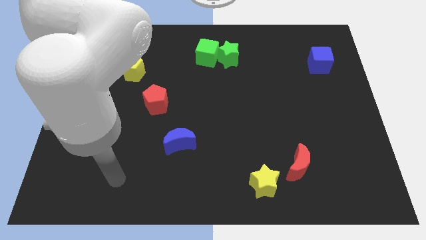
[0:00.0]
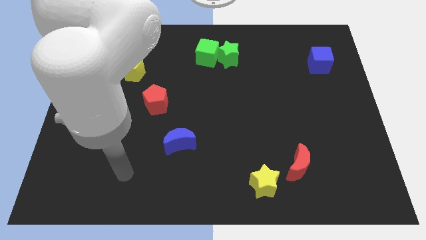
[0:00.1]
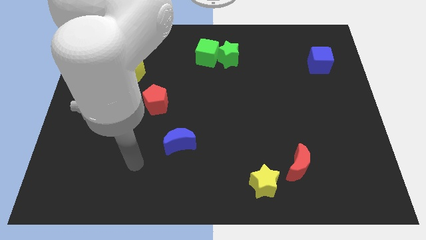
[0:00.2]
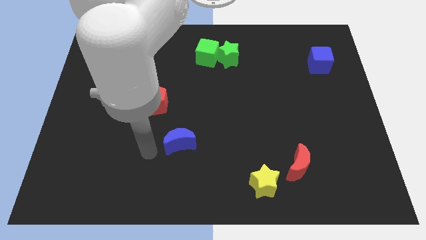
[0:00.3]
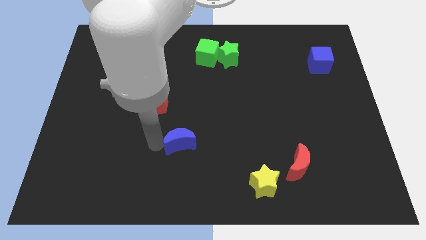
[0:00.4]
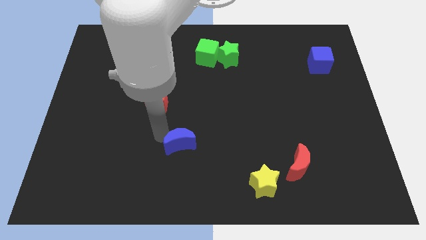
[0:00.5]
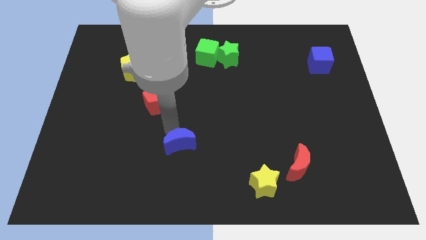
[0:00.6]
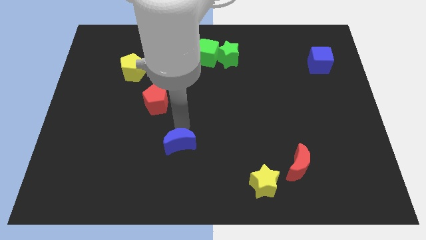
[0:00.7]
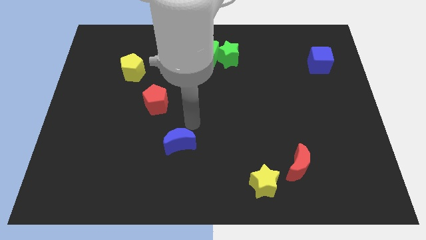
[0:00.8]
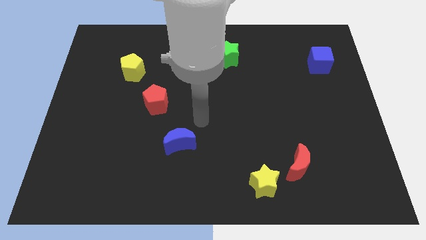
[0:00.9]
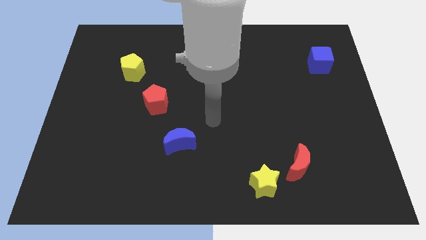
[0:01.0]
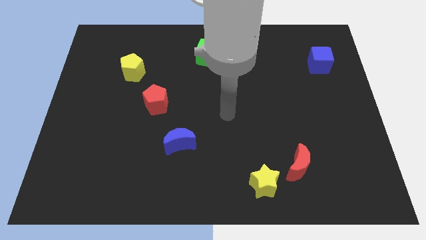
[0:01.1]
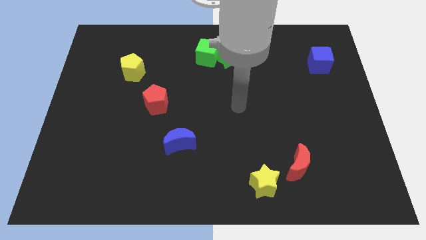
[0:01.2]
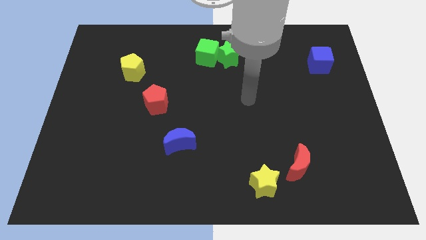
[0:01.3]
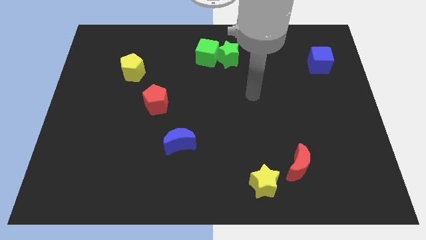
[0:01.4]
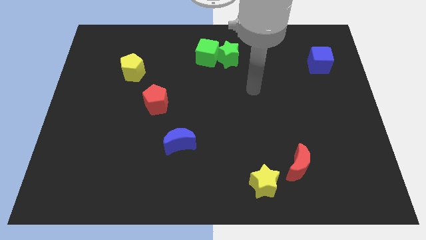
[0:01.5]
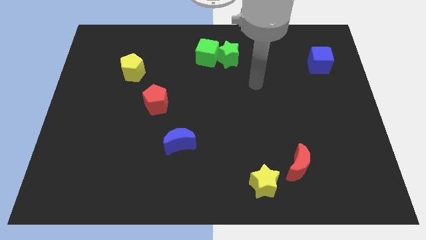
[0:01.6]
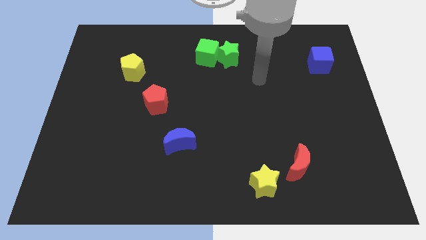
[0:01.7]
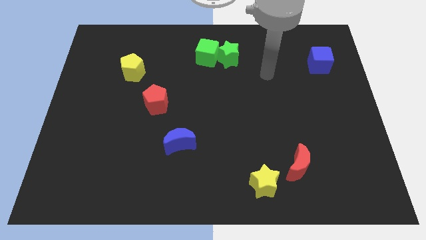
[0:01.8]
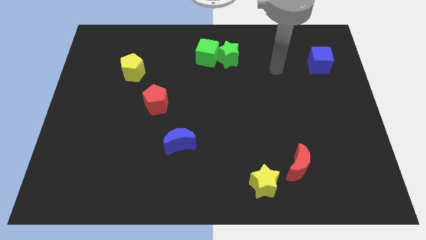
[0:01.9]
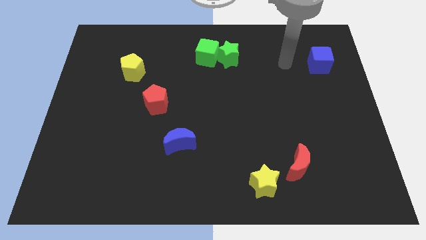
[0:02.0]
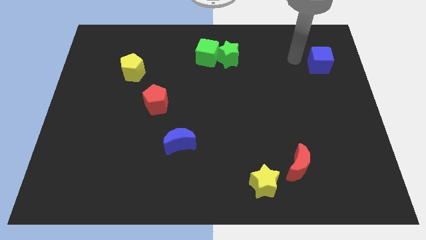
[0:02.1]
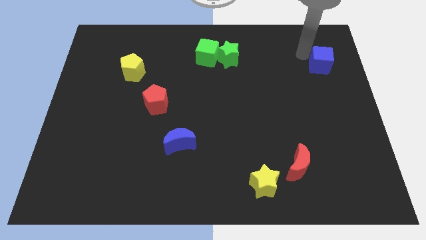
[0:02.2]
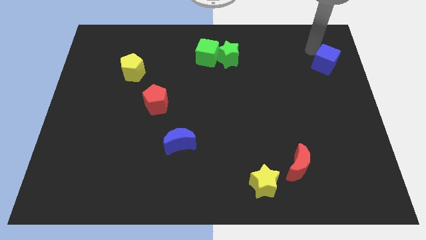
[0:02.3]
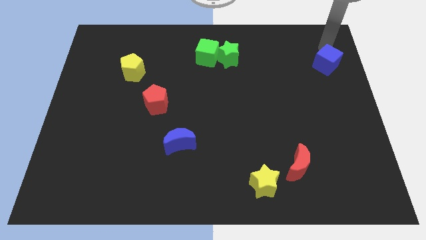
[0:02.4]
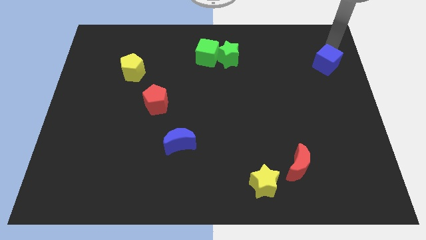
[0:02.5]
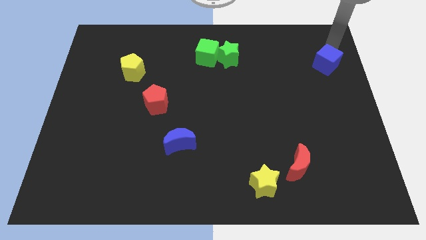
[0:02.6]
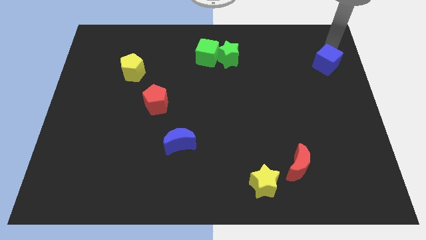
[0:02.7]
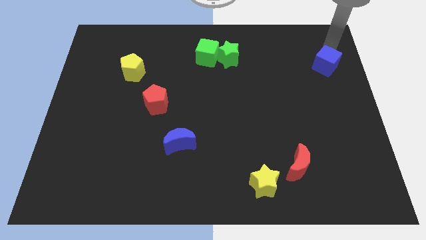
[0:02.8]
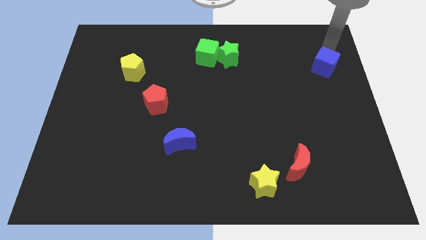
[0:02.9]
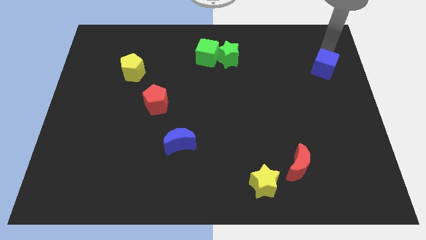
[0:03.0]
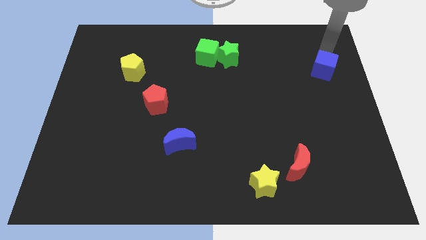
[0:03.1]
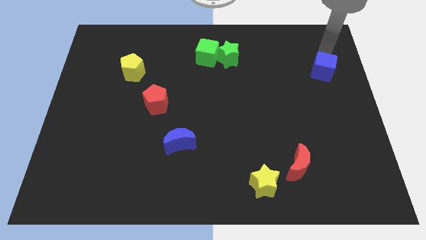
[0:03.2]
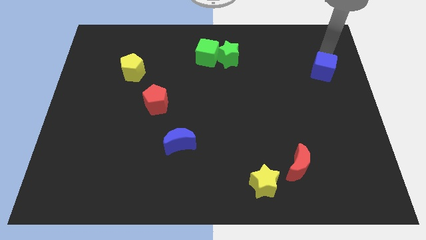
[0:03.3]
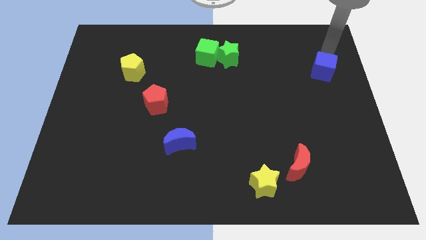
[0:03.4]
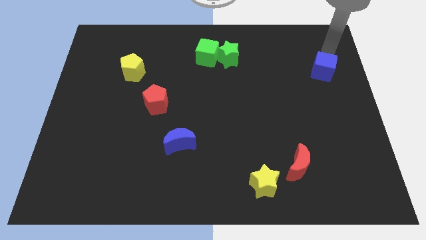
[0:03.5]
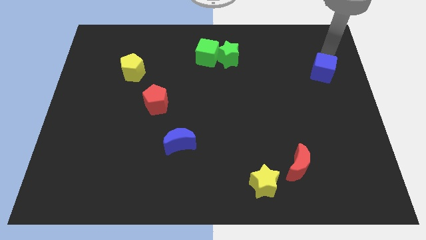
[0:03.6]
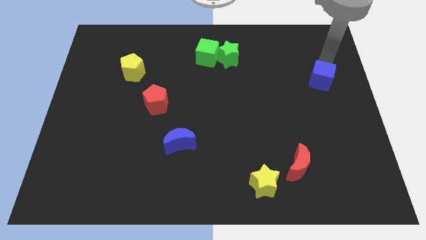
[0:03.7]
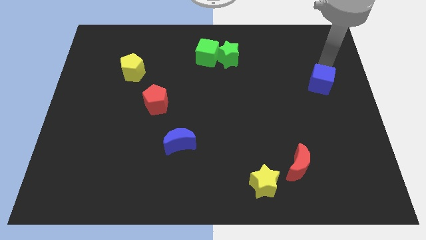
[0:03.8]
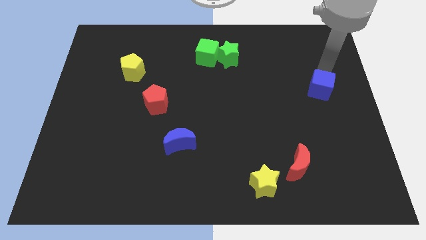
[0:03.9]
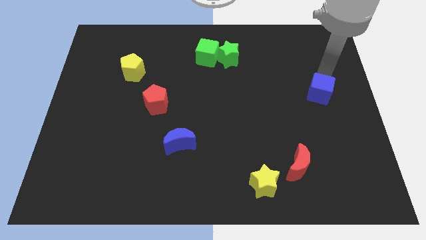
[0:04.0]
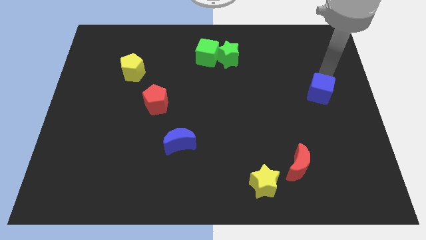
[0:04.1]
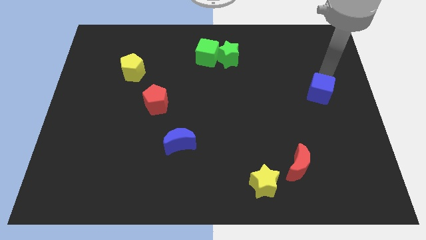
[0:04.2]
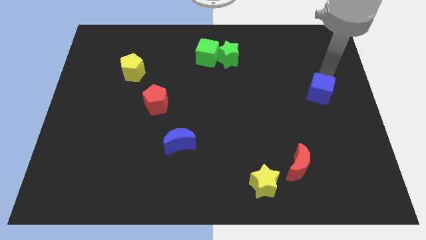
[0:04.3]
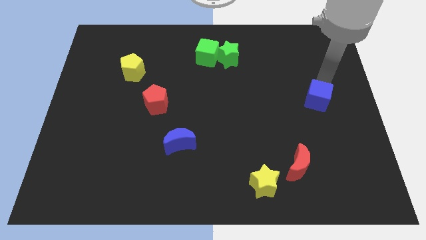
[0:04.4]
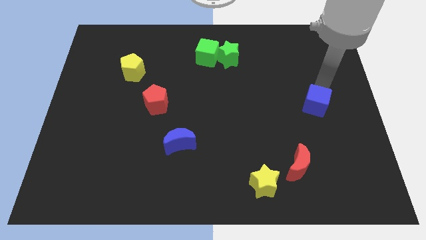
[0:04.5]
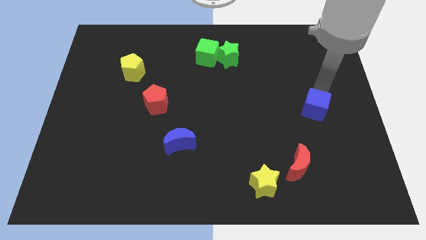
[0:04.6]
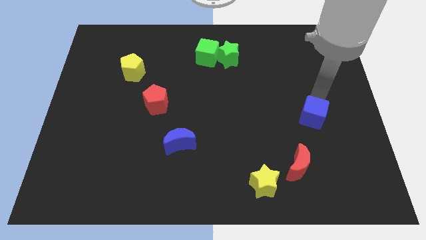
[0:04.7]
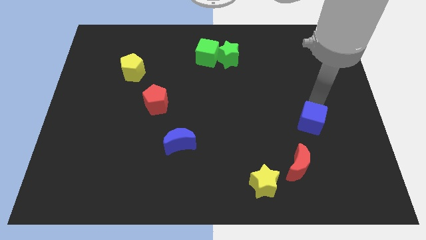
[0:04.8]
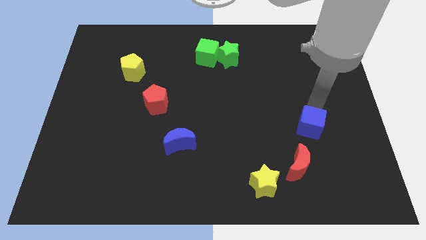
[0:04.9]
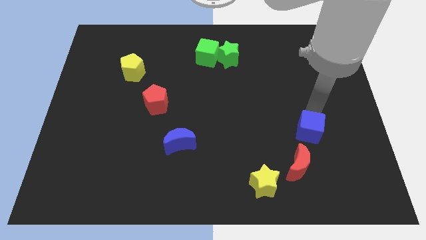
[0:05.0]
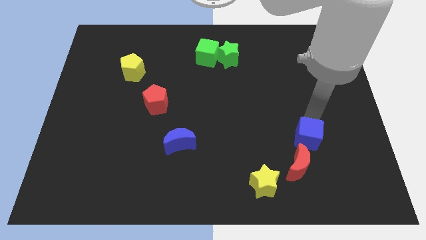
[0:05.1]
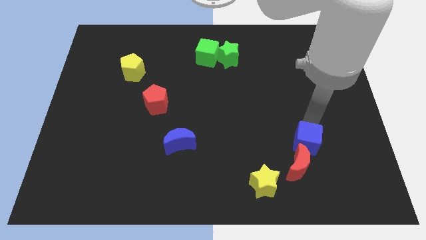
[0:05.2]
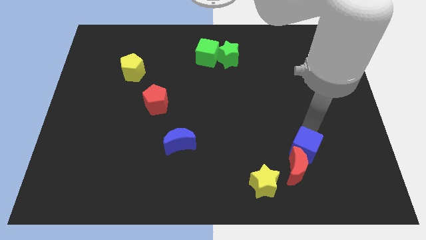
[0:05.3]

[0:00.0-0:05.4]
move the blue cube to the red moon

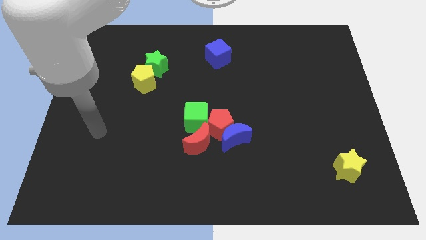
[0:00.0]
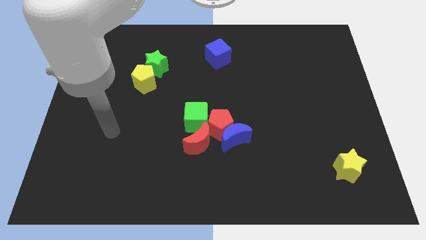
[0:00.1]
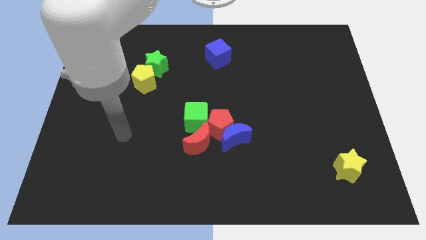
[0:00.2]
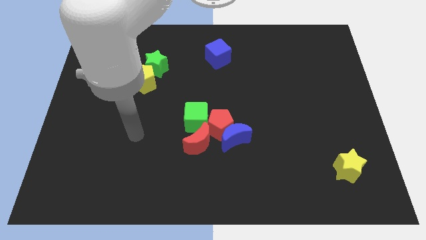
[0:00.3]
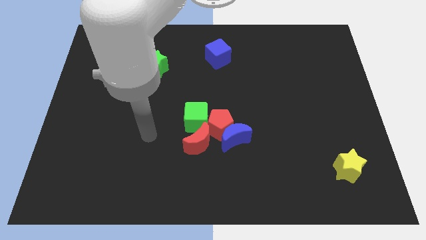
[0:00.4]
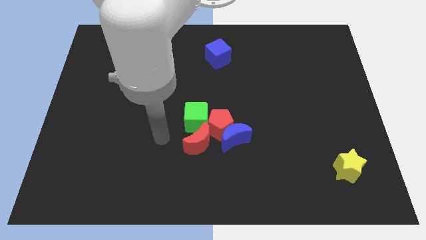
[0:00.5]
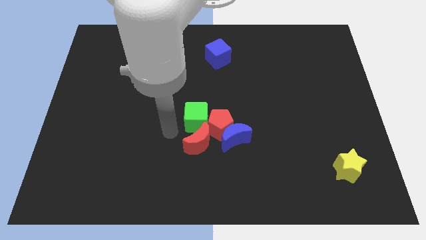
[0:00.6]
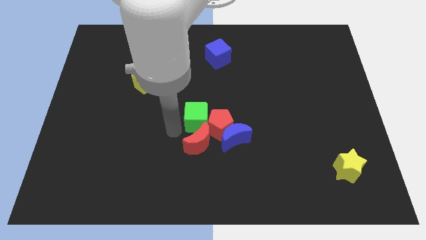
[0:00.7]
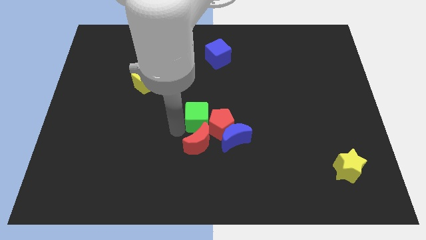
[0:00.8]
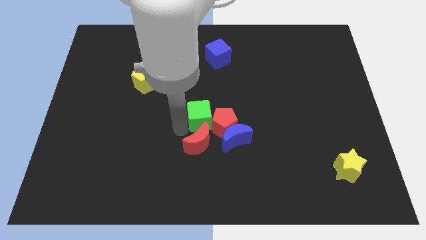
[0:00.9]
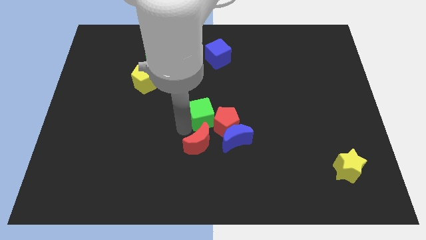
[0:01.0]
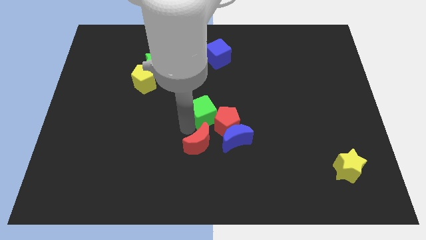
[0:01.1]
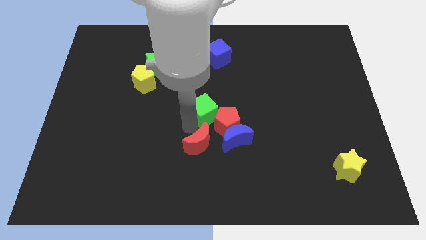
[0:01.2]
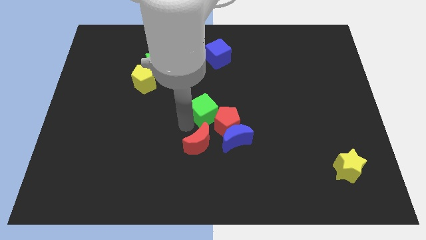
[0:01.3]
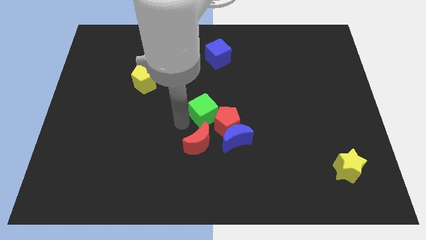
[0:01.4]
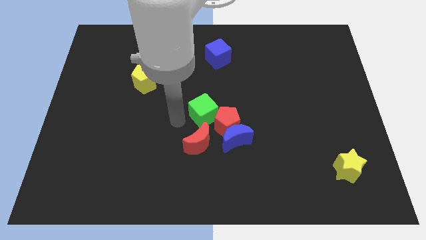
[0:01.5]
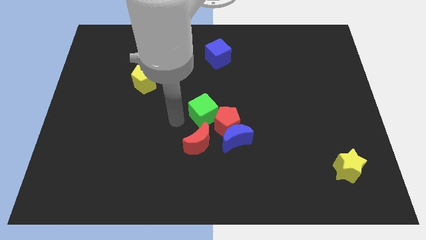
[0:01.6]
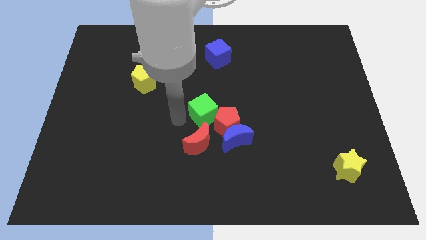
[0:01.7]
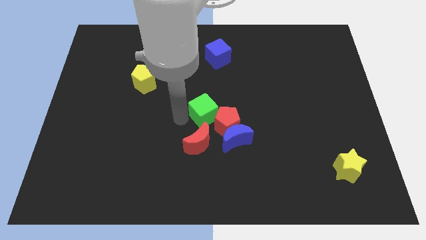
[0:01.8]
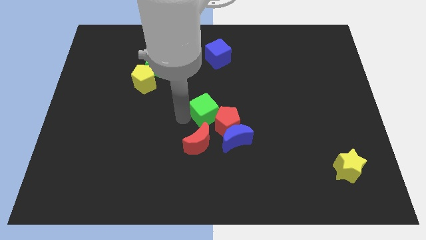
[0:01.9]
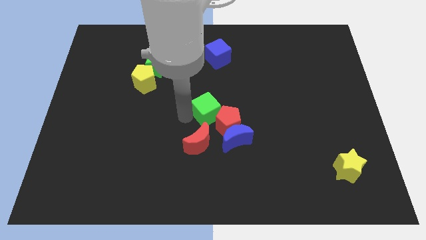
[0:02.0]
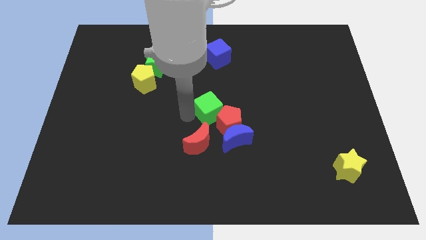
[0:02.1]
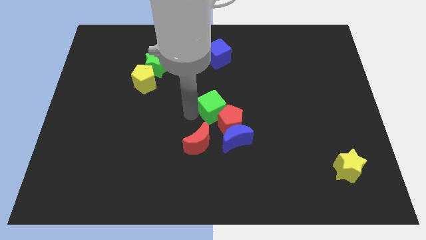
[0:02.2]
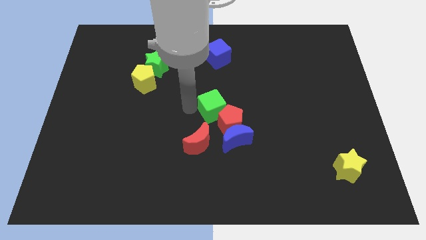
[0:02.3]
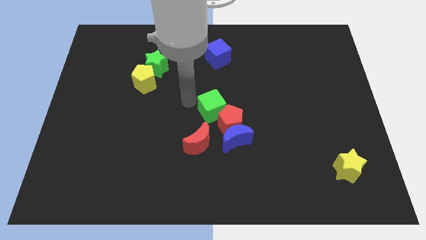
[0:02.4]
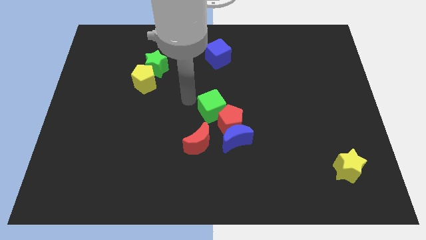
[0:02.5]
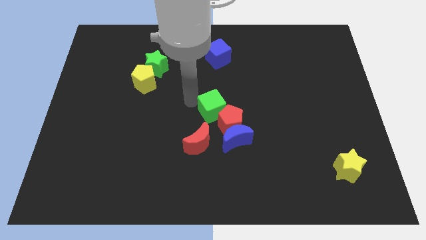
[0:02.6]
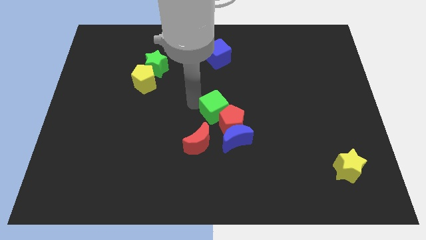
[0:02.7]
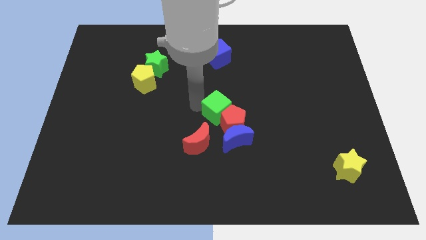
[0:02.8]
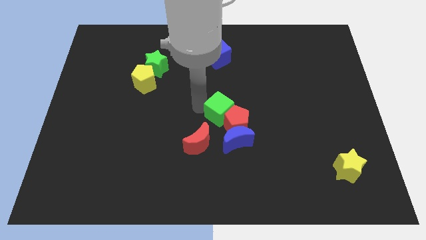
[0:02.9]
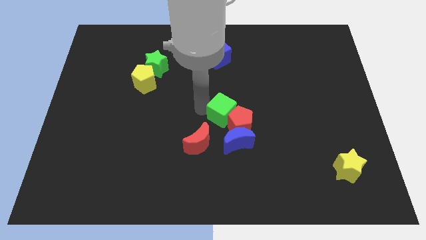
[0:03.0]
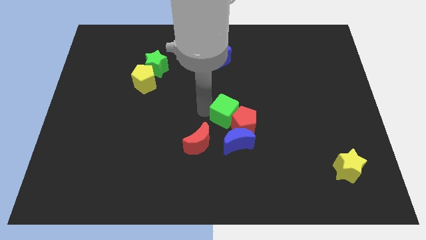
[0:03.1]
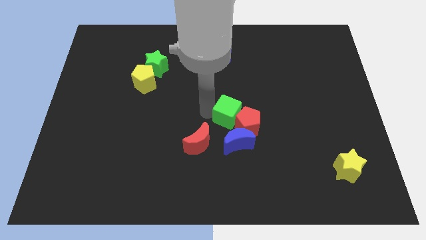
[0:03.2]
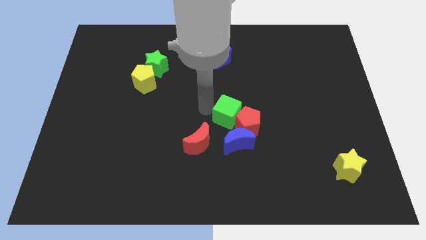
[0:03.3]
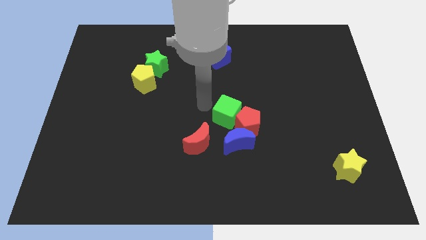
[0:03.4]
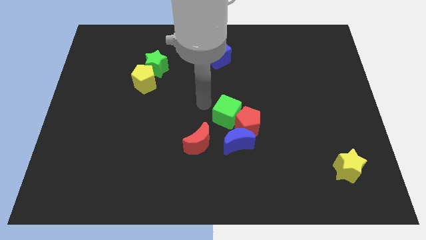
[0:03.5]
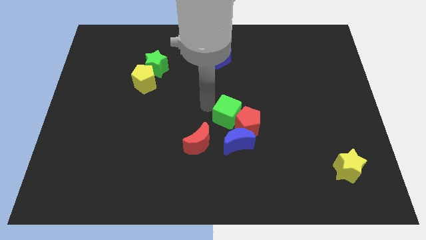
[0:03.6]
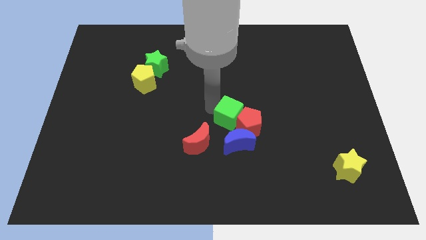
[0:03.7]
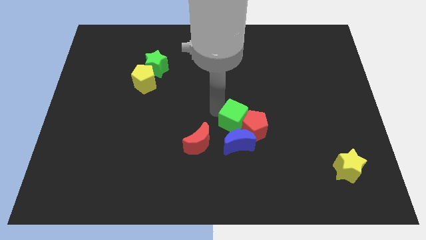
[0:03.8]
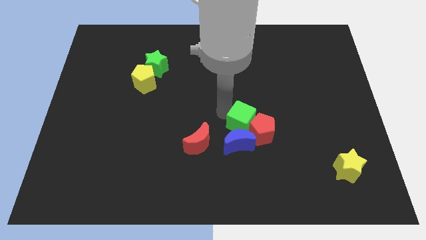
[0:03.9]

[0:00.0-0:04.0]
put the green cube next to the blue moon
